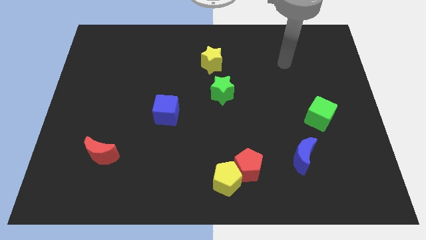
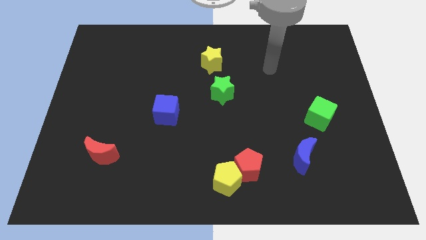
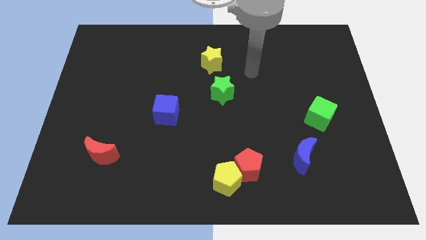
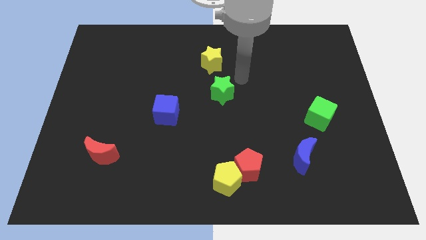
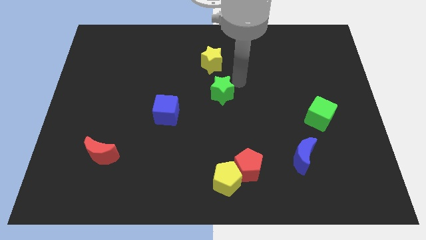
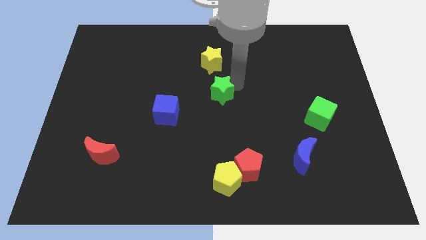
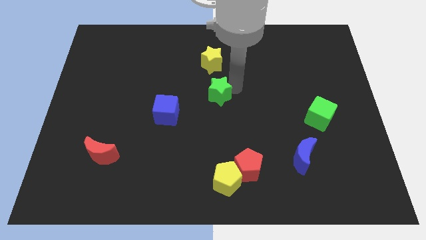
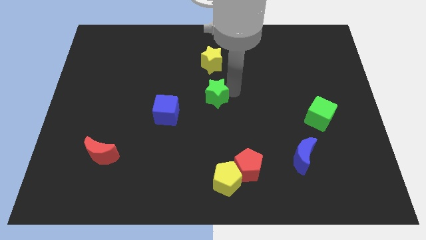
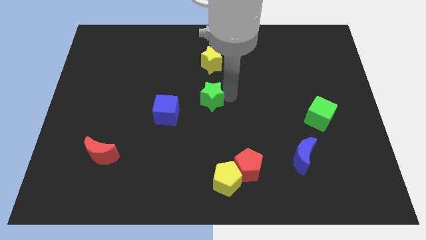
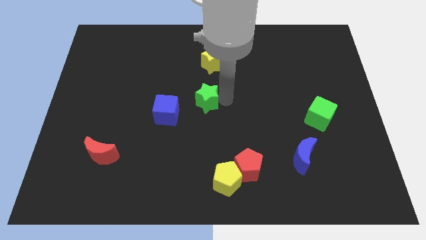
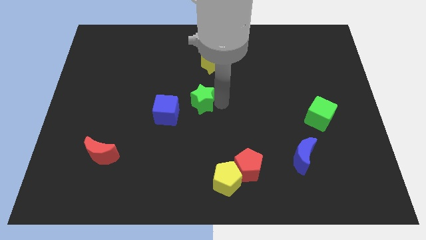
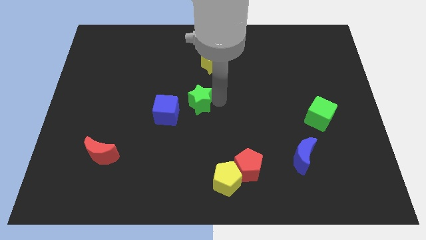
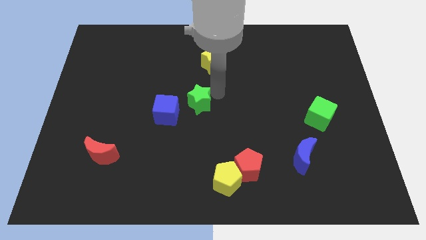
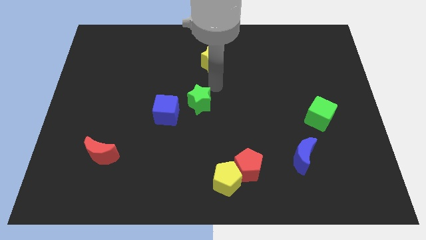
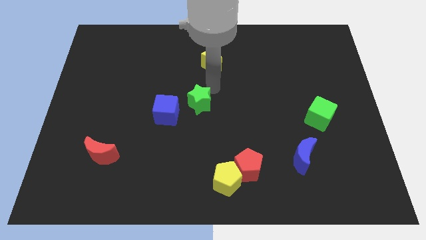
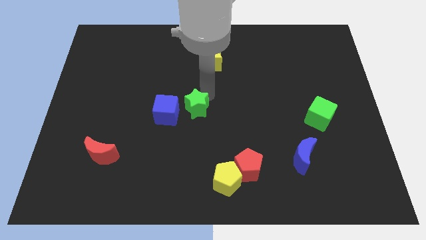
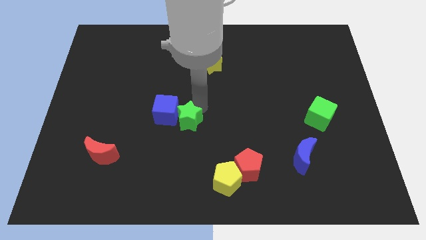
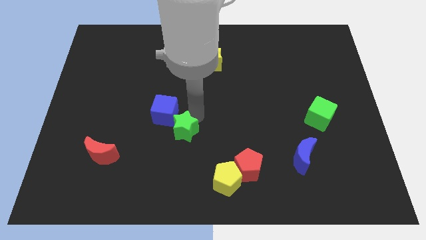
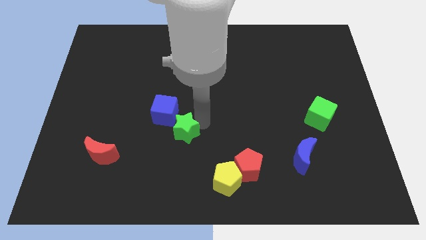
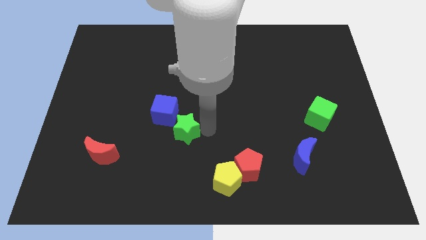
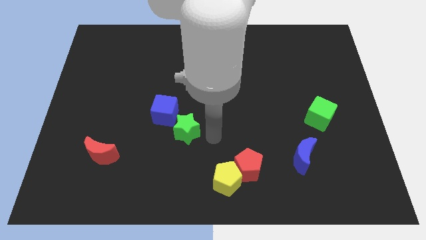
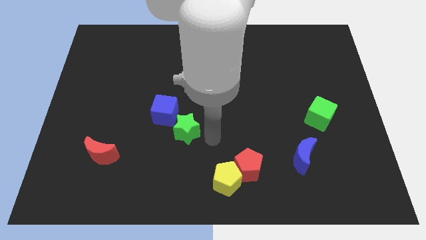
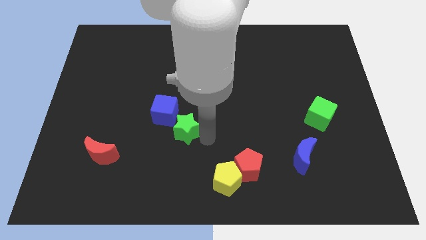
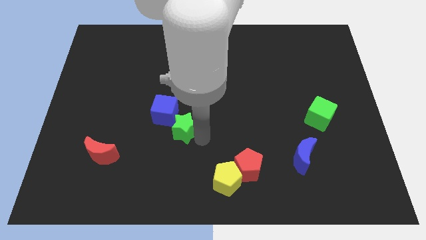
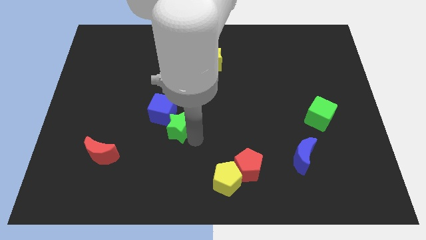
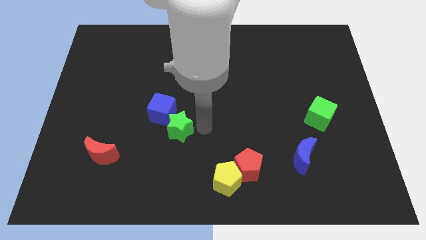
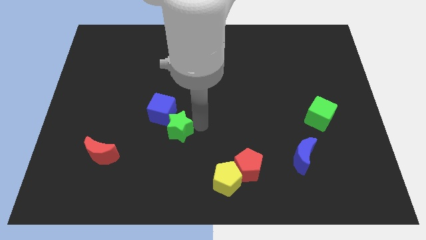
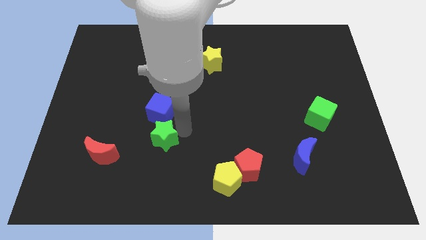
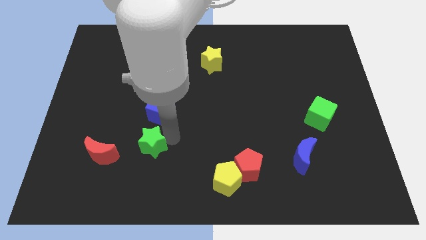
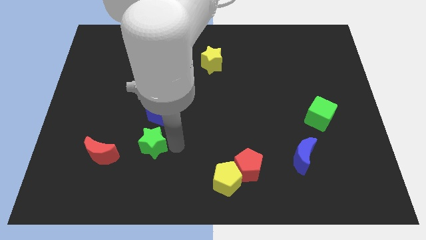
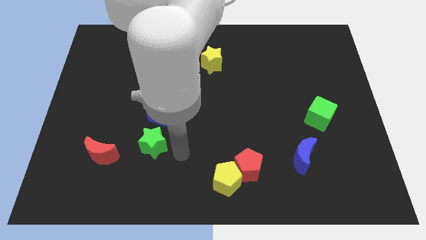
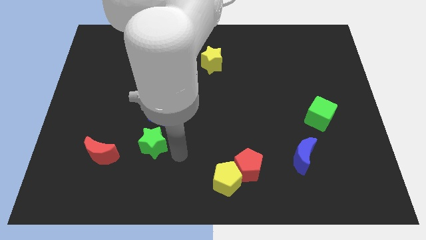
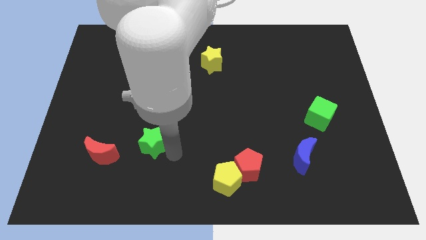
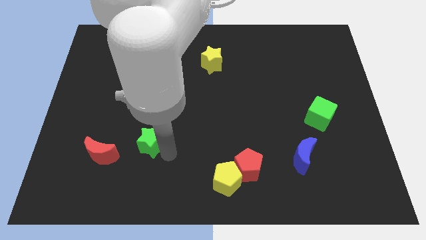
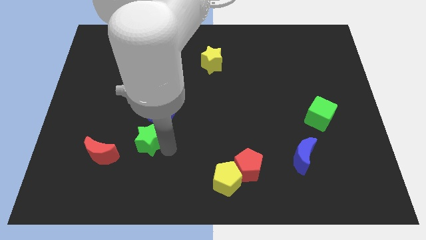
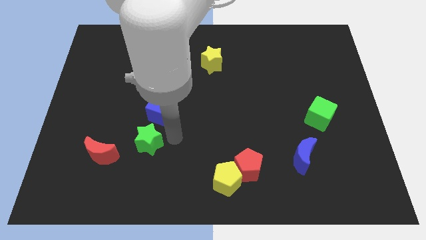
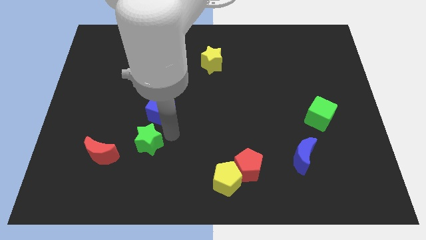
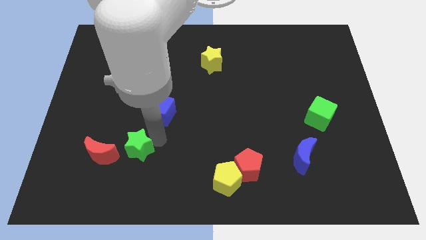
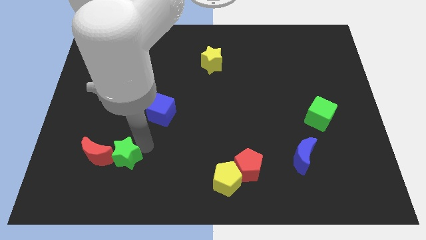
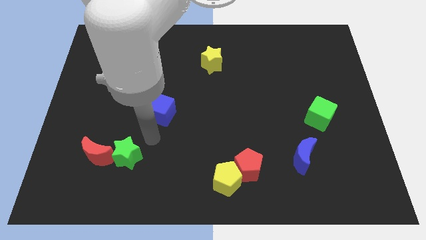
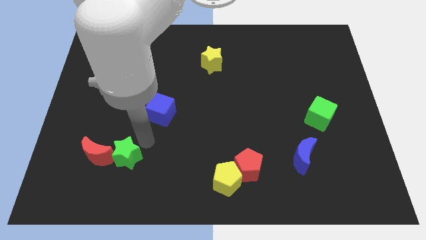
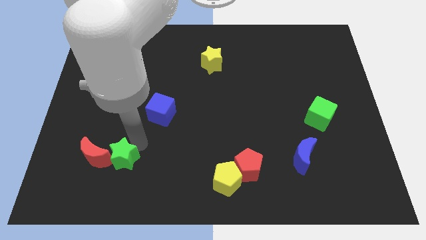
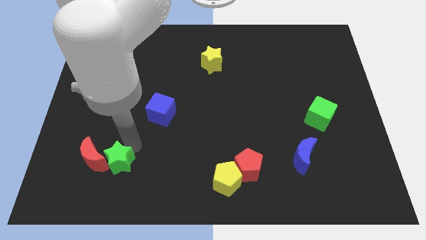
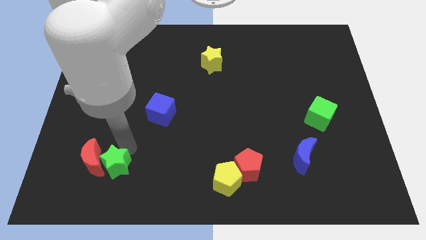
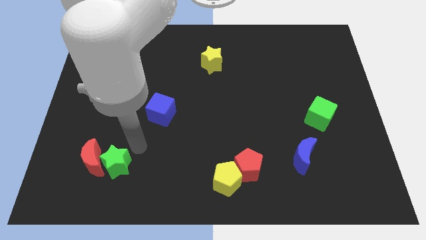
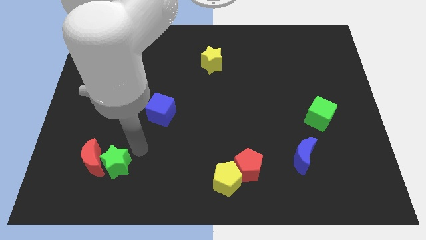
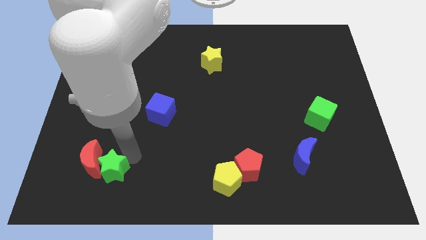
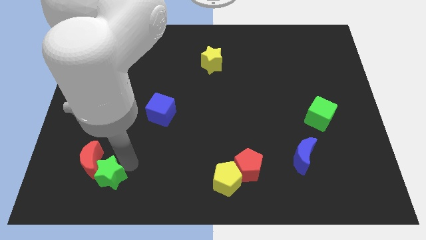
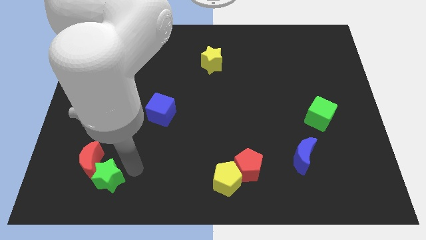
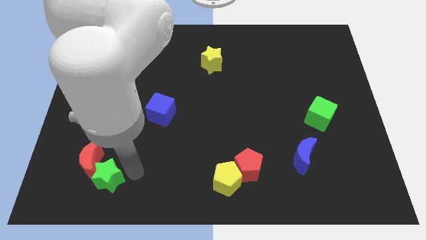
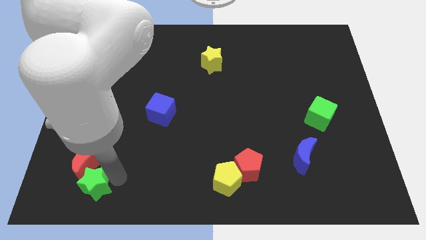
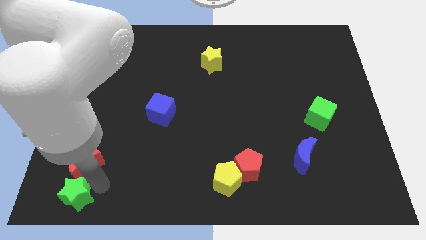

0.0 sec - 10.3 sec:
put the green star to the lower left corner

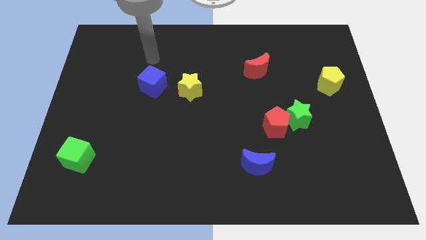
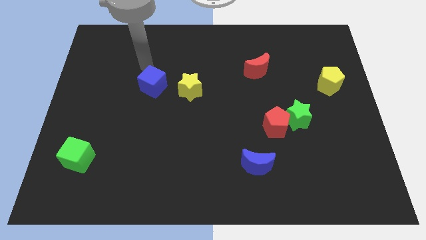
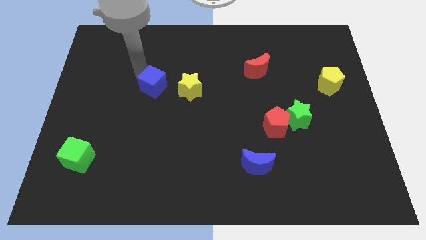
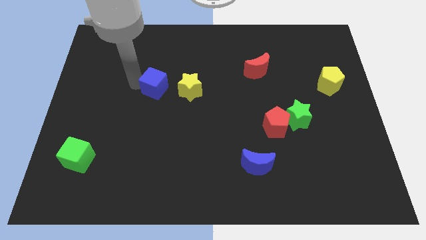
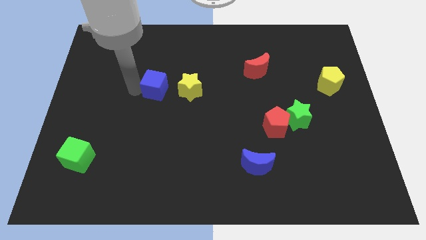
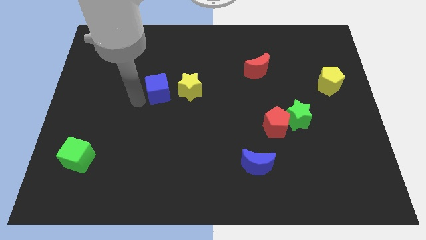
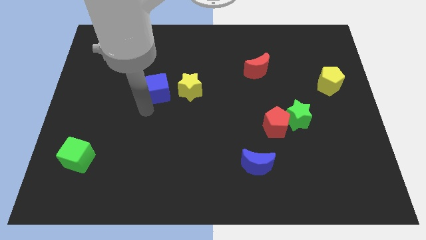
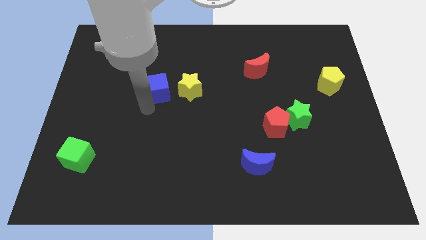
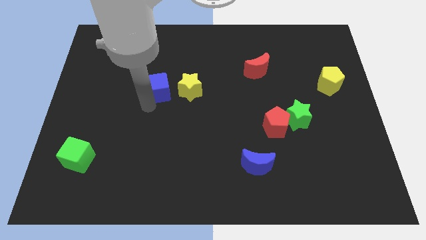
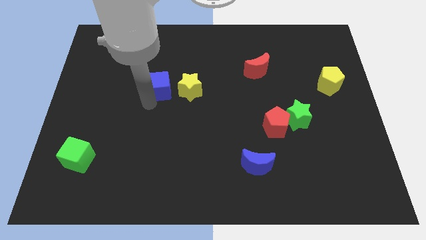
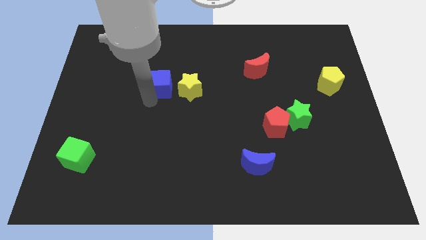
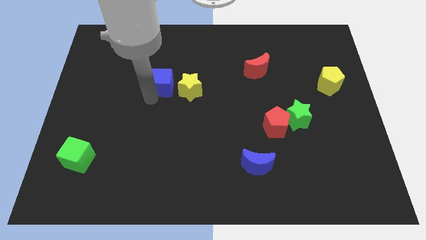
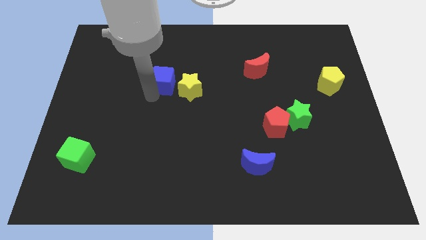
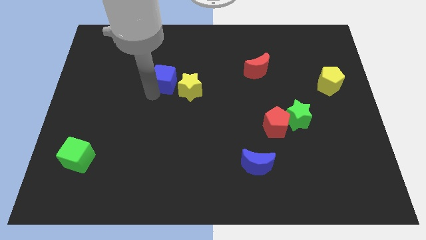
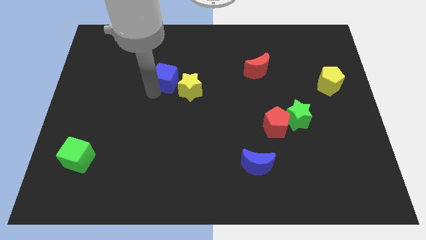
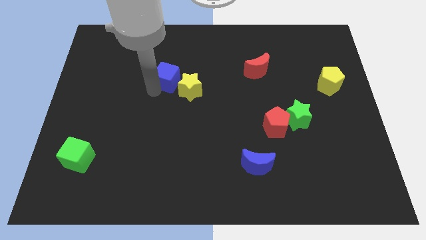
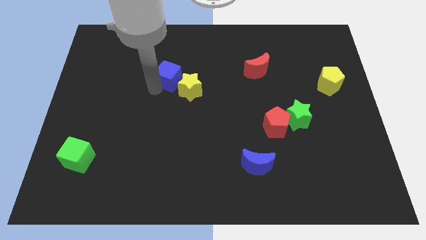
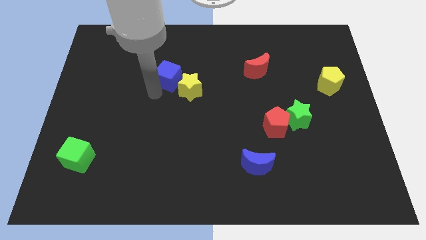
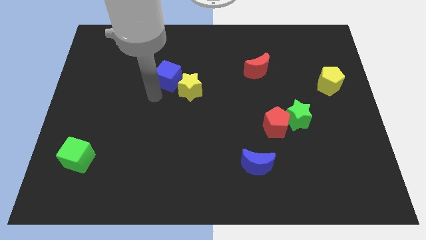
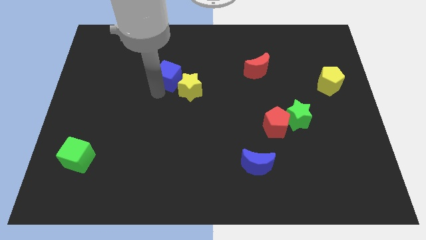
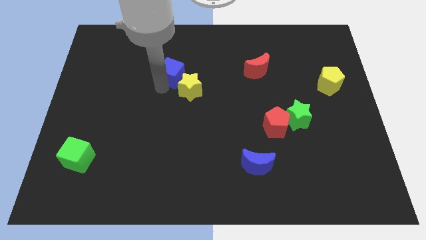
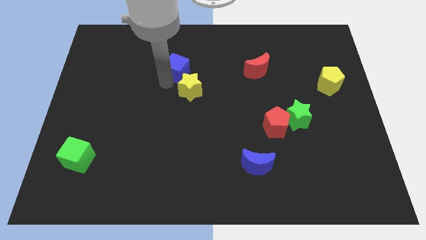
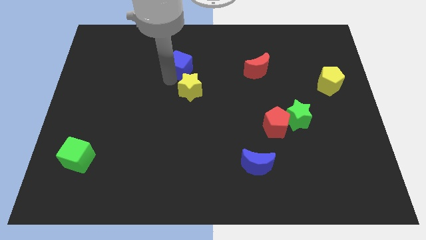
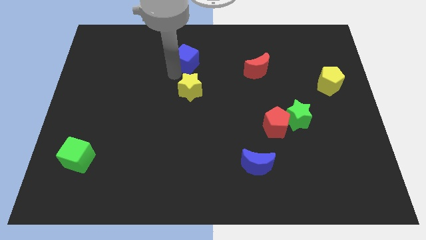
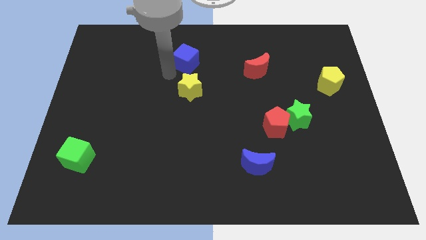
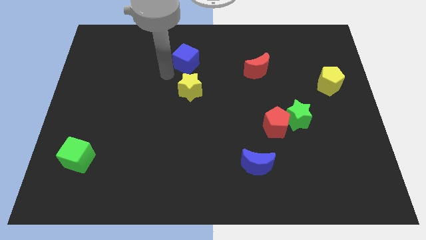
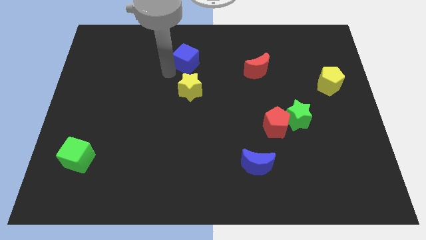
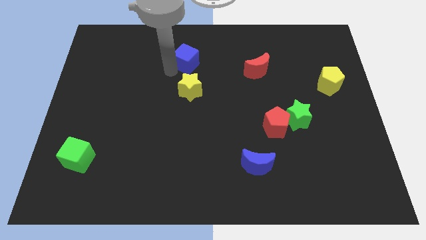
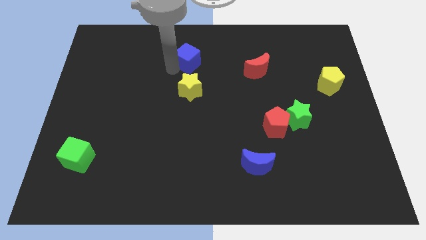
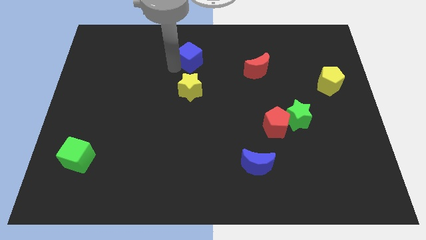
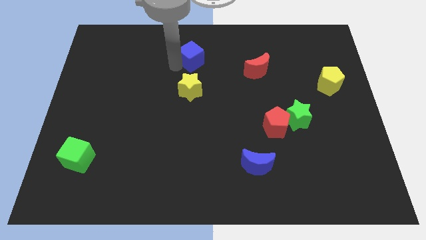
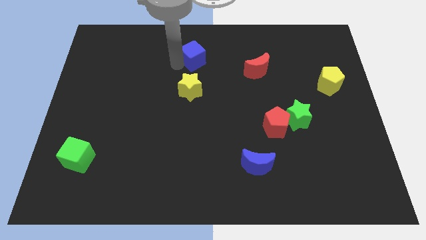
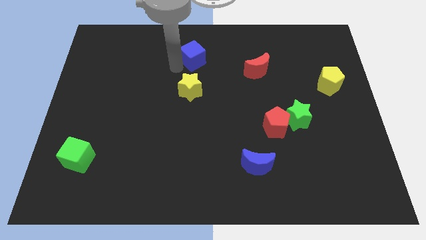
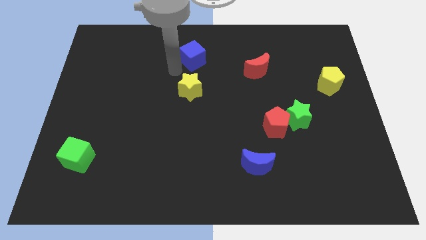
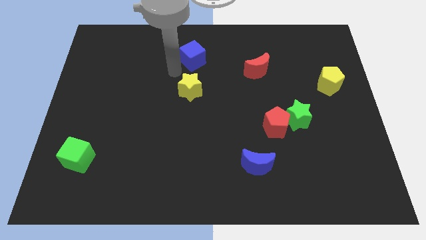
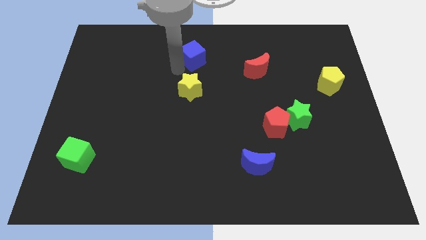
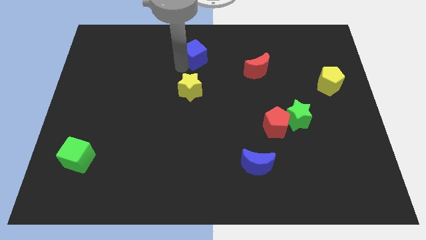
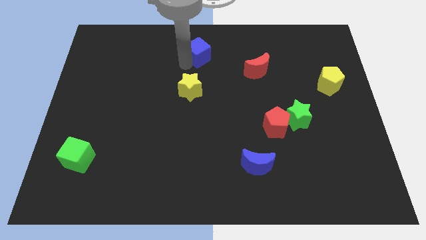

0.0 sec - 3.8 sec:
slide the blue cube to the towards your base
